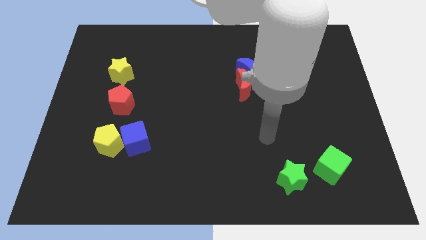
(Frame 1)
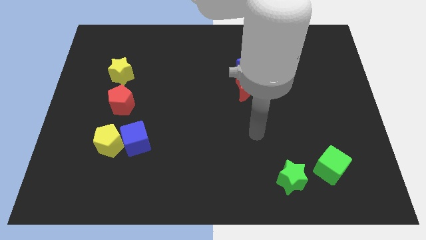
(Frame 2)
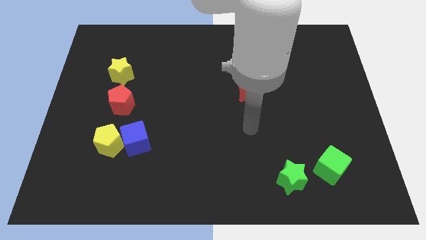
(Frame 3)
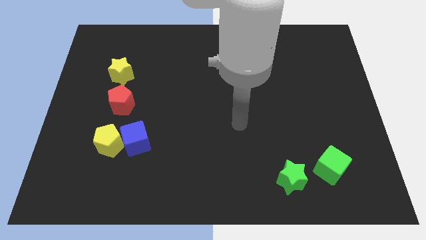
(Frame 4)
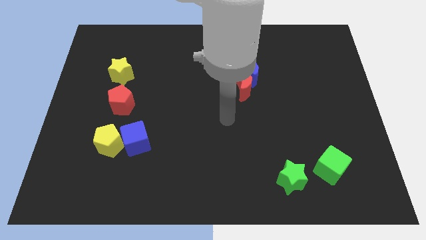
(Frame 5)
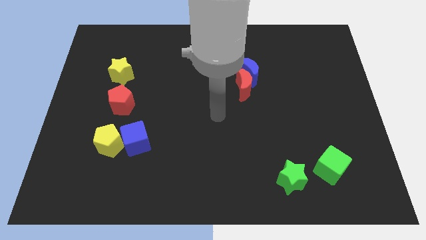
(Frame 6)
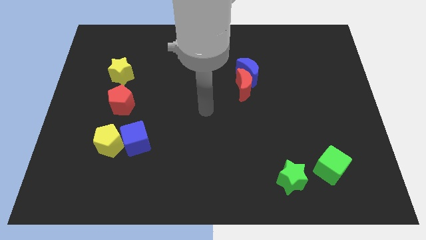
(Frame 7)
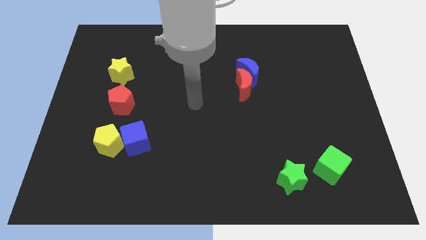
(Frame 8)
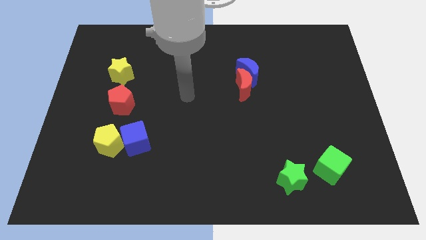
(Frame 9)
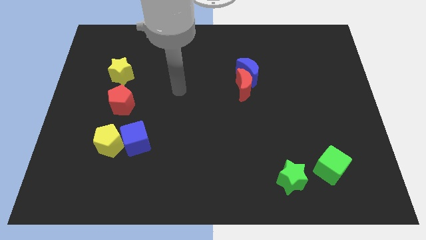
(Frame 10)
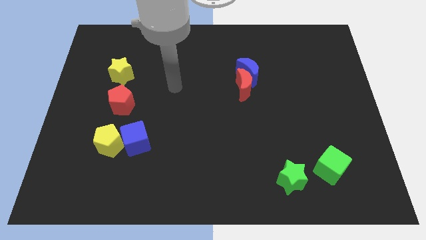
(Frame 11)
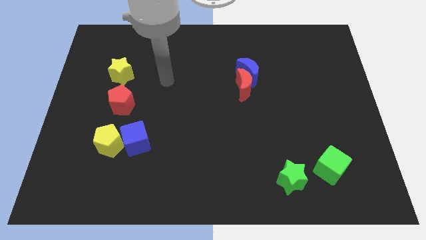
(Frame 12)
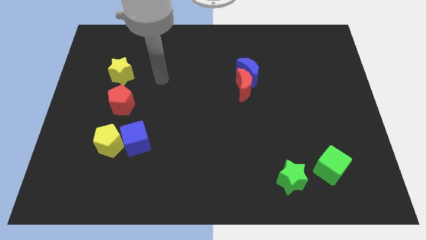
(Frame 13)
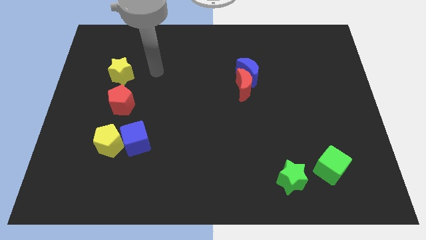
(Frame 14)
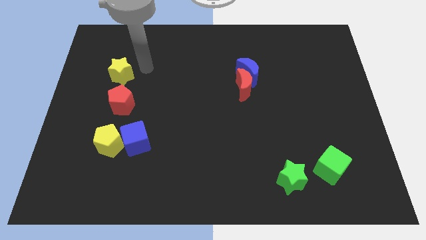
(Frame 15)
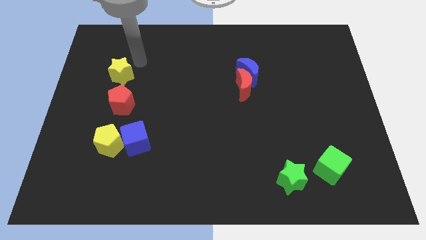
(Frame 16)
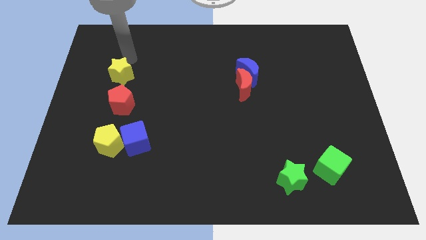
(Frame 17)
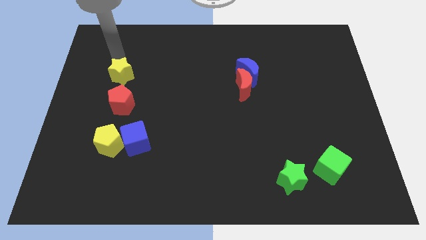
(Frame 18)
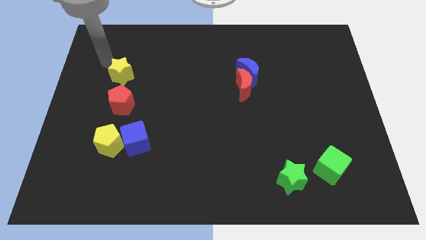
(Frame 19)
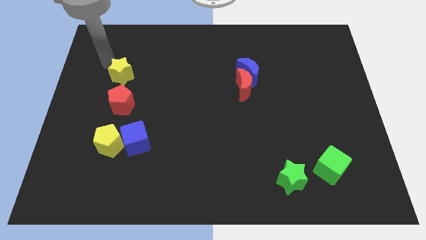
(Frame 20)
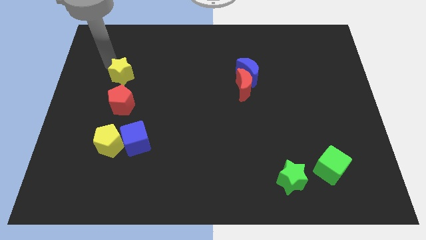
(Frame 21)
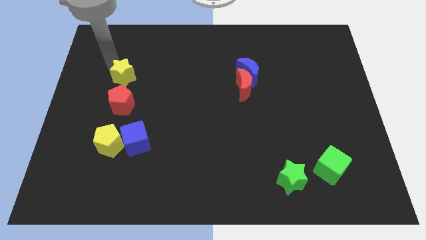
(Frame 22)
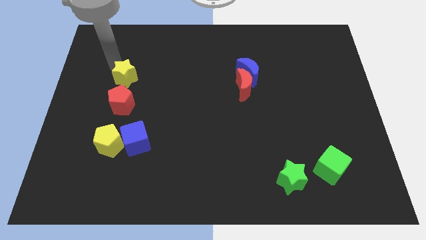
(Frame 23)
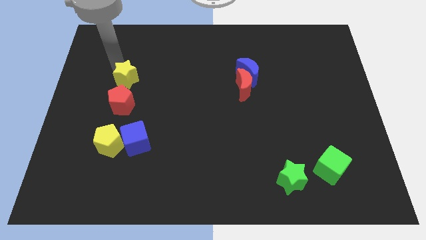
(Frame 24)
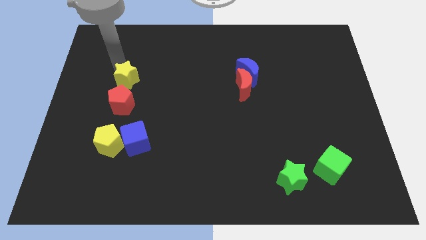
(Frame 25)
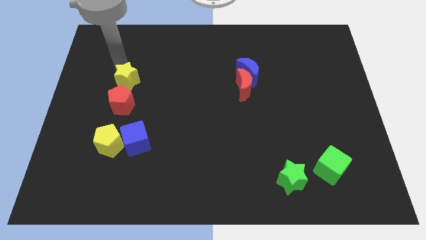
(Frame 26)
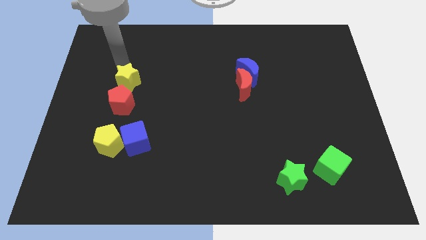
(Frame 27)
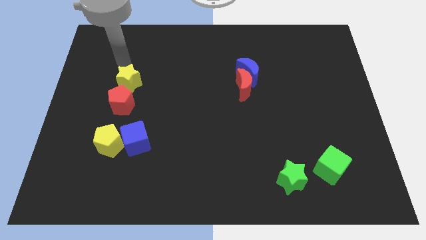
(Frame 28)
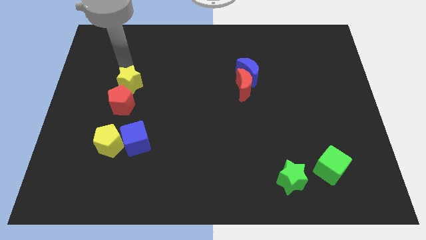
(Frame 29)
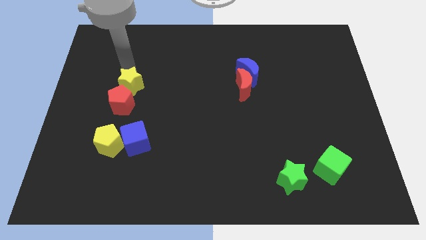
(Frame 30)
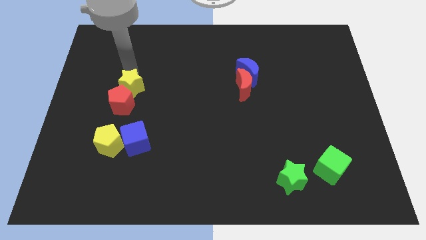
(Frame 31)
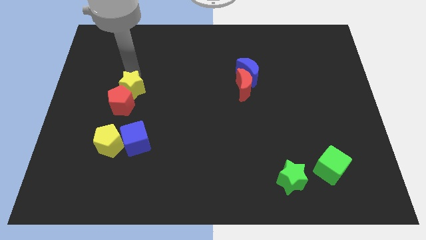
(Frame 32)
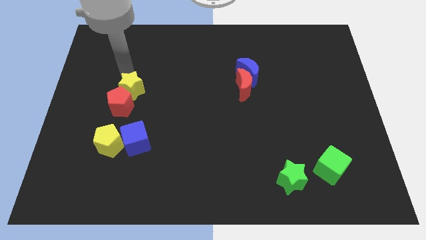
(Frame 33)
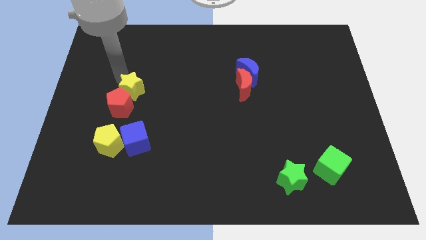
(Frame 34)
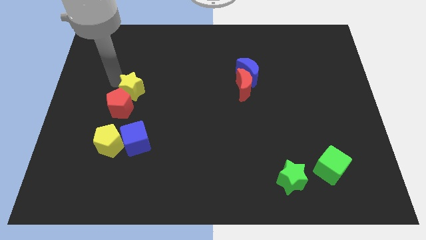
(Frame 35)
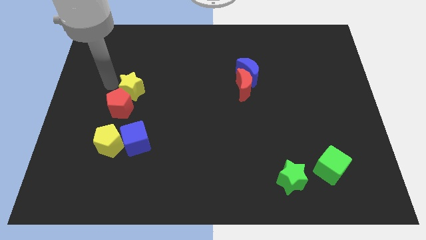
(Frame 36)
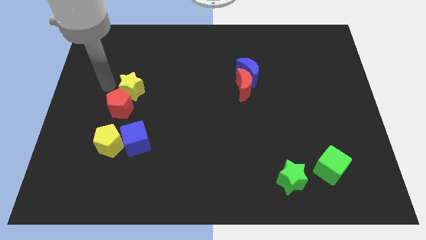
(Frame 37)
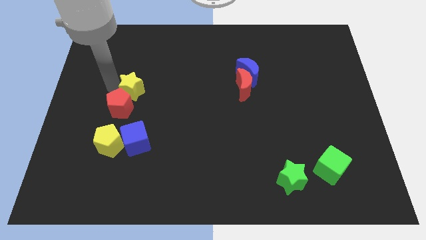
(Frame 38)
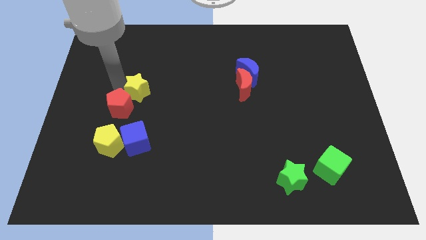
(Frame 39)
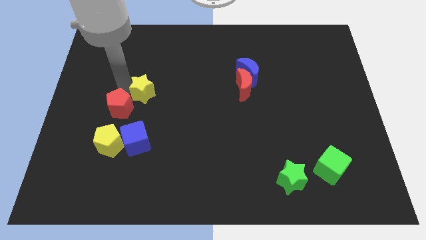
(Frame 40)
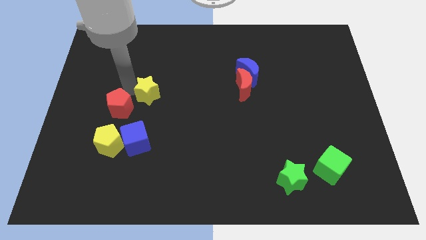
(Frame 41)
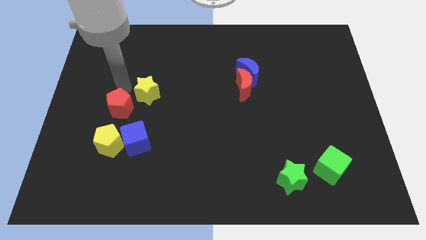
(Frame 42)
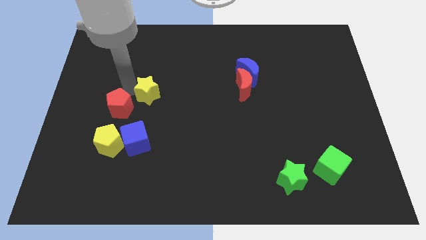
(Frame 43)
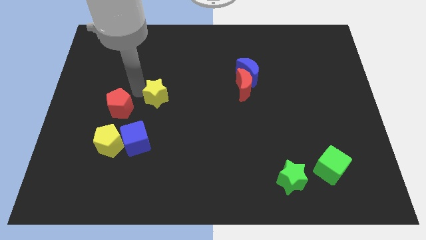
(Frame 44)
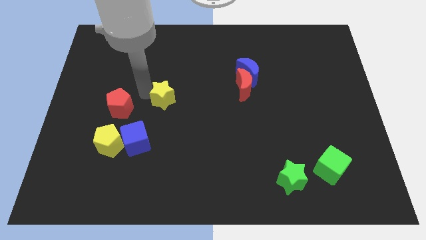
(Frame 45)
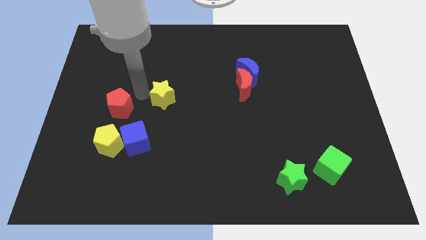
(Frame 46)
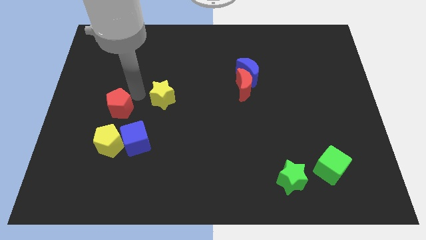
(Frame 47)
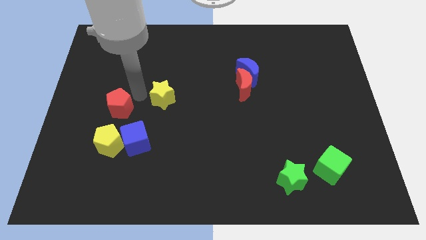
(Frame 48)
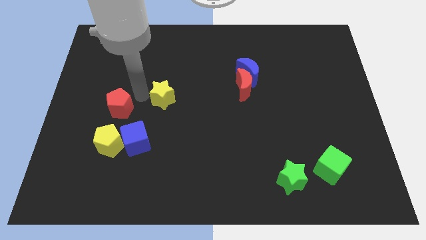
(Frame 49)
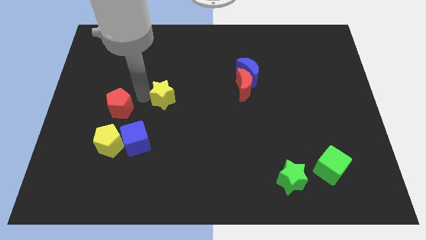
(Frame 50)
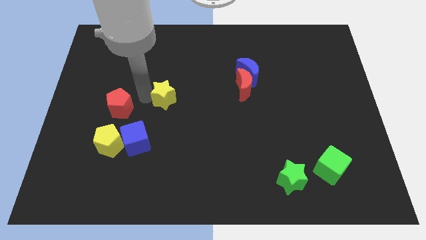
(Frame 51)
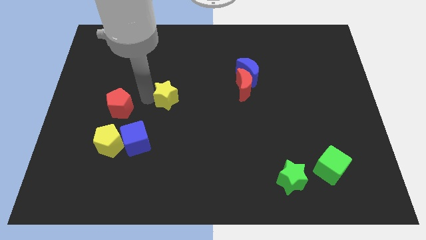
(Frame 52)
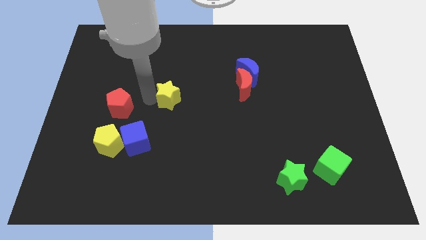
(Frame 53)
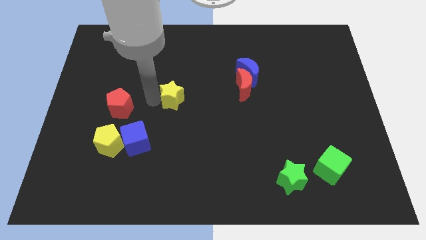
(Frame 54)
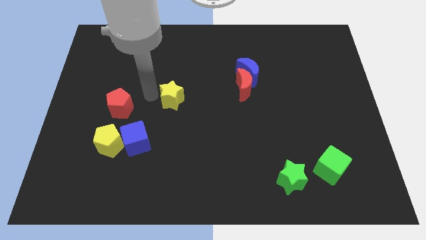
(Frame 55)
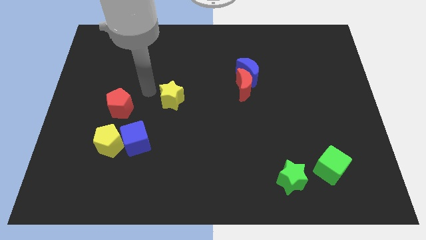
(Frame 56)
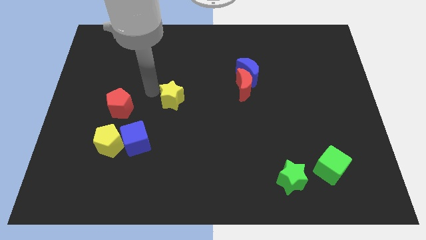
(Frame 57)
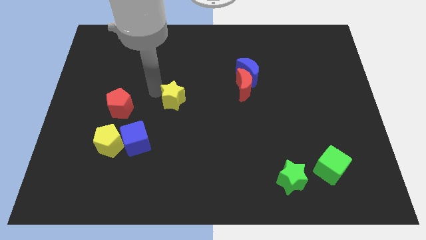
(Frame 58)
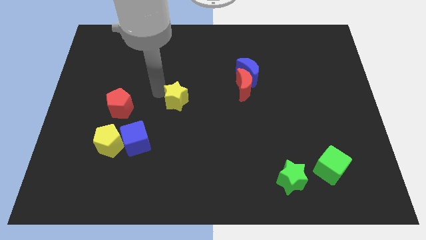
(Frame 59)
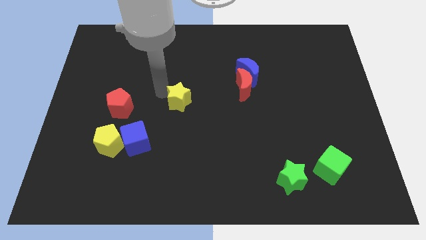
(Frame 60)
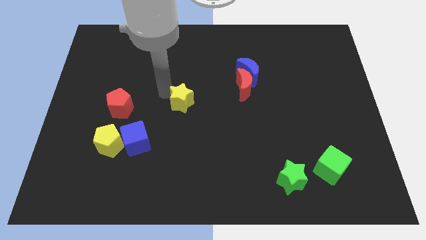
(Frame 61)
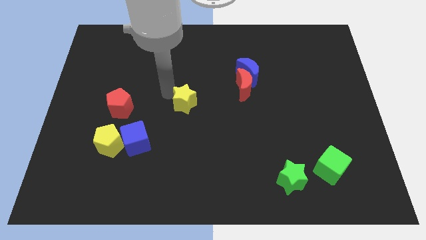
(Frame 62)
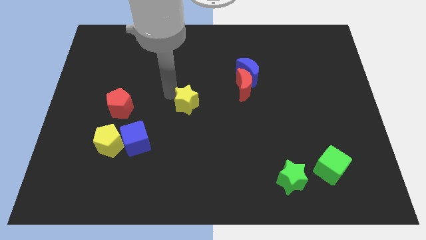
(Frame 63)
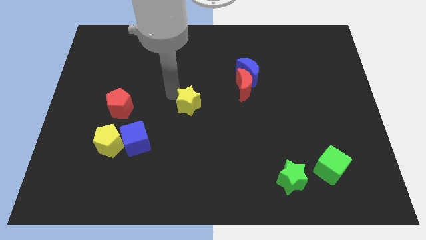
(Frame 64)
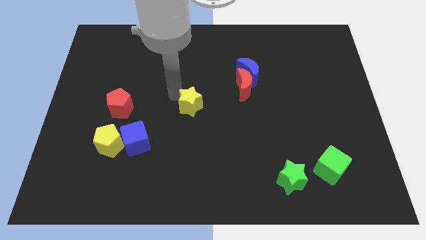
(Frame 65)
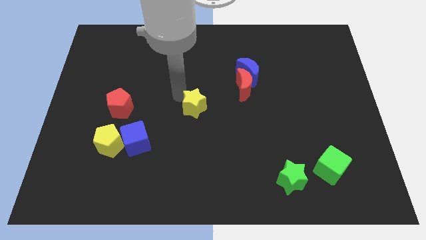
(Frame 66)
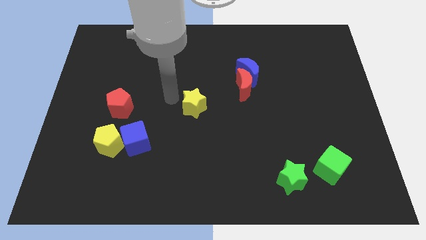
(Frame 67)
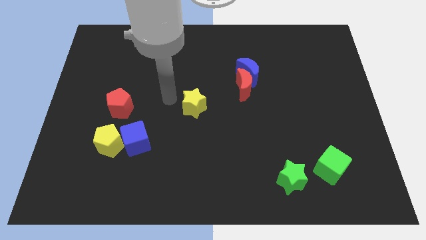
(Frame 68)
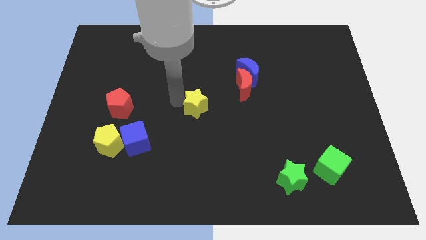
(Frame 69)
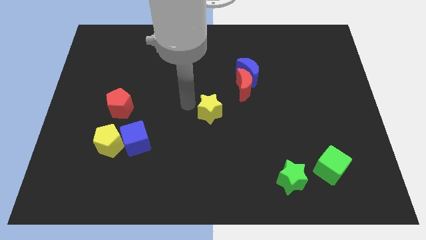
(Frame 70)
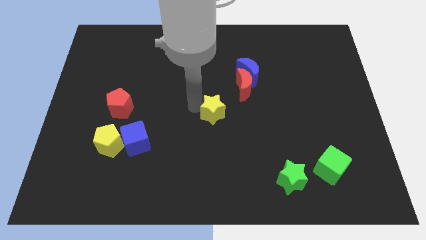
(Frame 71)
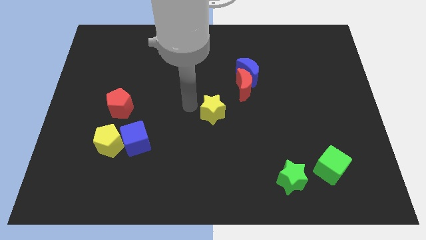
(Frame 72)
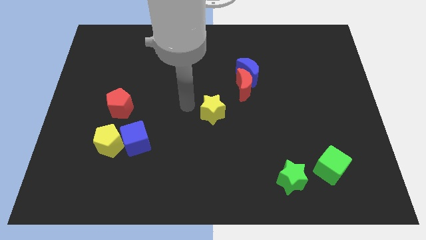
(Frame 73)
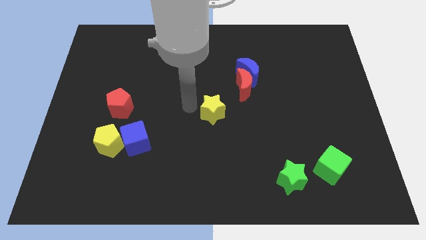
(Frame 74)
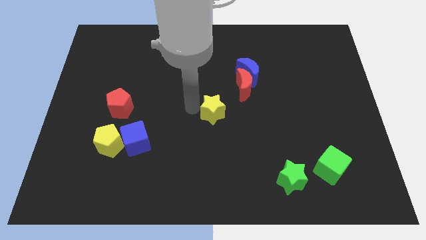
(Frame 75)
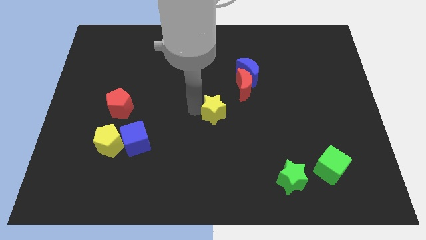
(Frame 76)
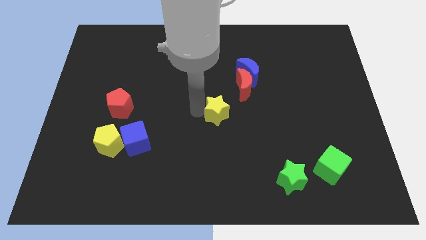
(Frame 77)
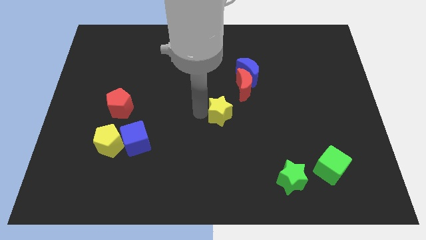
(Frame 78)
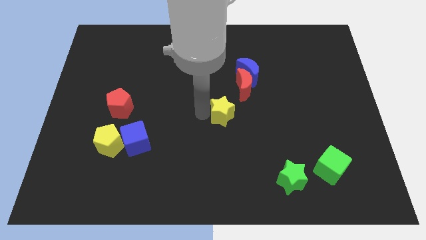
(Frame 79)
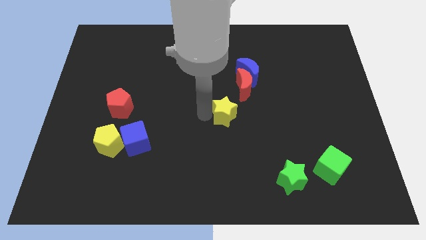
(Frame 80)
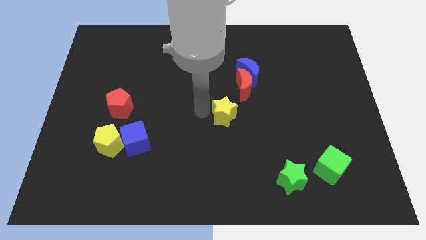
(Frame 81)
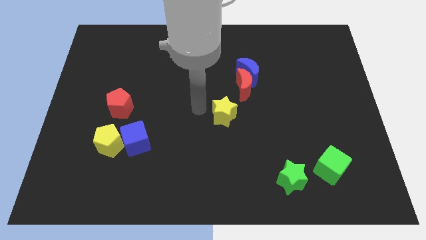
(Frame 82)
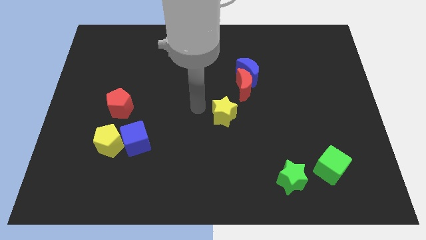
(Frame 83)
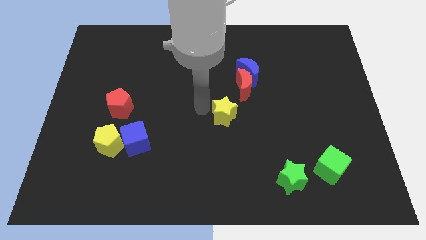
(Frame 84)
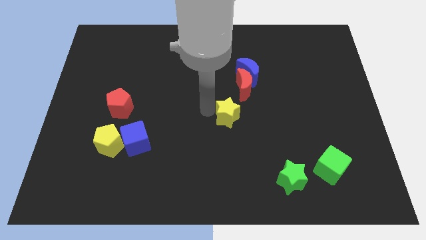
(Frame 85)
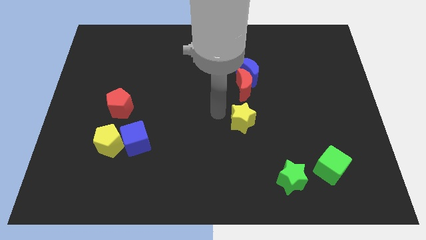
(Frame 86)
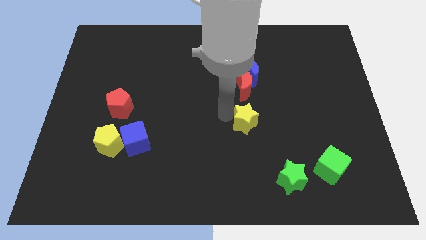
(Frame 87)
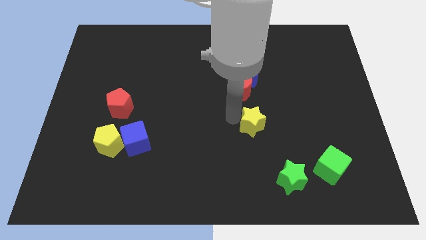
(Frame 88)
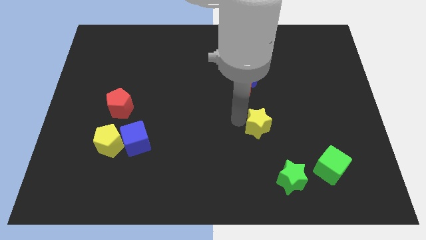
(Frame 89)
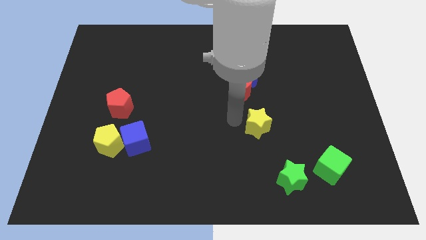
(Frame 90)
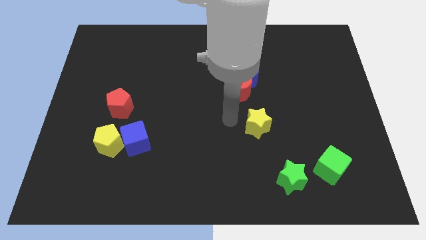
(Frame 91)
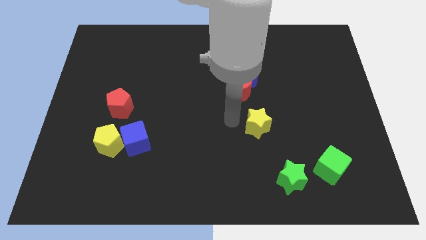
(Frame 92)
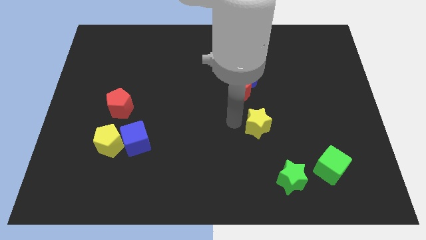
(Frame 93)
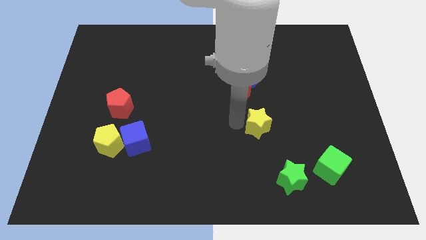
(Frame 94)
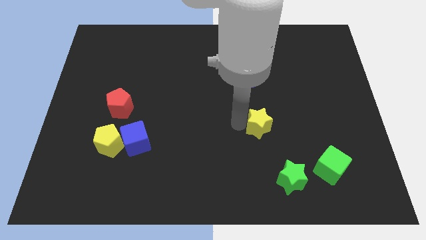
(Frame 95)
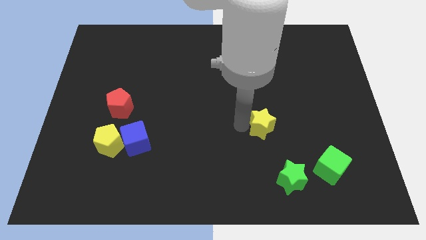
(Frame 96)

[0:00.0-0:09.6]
push the yellow star above the green star
